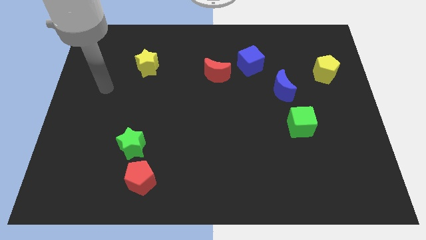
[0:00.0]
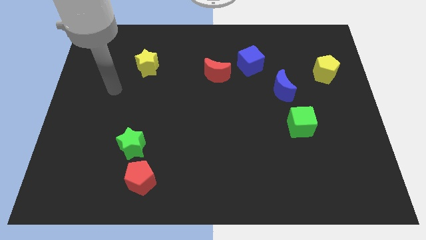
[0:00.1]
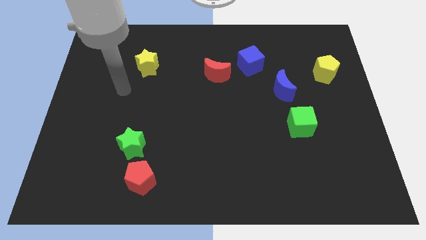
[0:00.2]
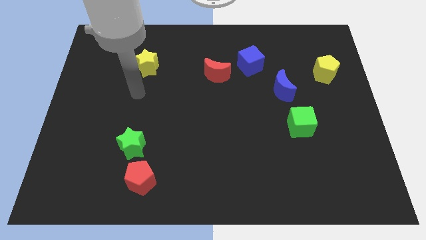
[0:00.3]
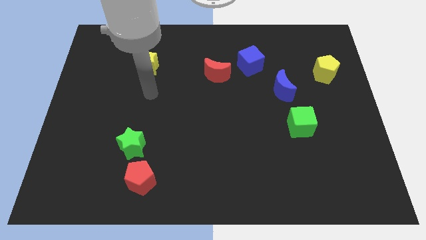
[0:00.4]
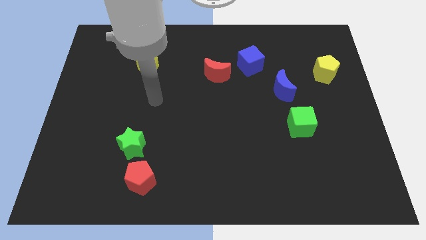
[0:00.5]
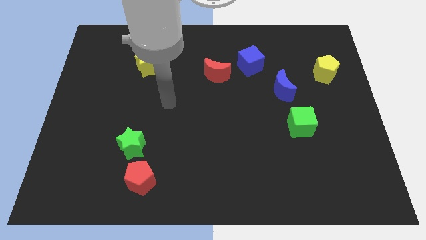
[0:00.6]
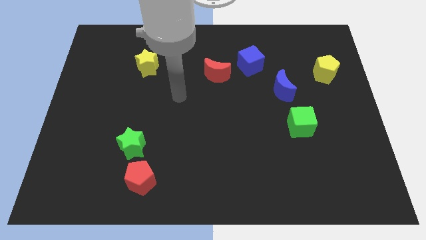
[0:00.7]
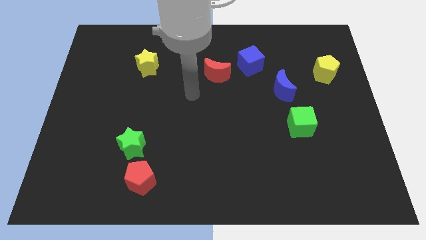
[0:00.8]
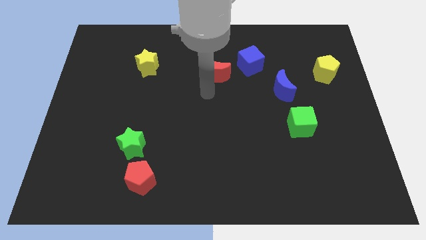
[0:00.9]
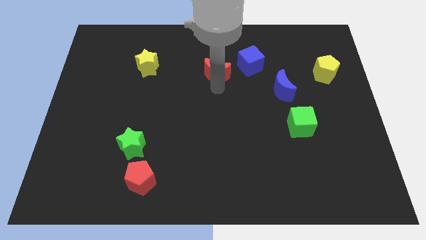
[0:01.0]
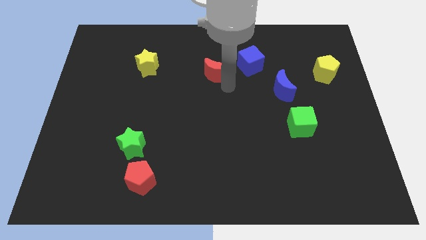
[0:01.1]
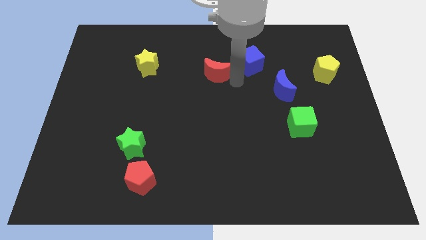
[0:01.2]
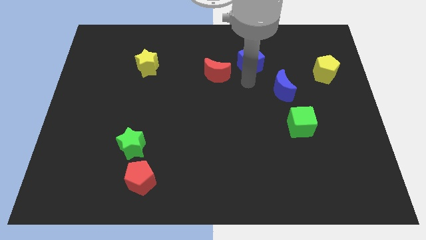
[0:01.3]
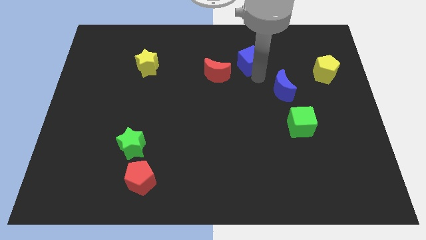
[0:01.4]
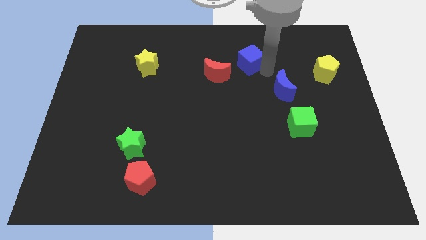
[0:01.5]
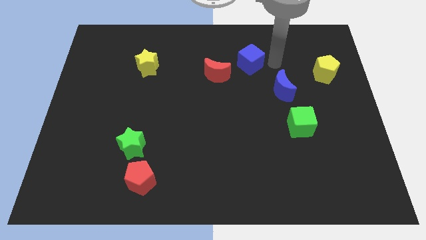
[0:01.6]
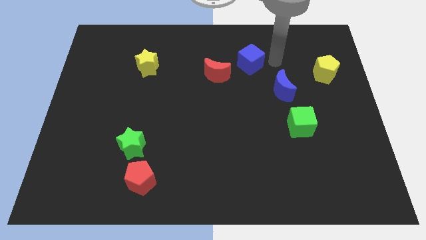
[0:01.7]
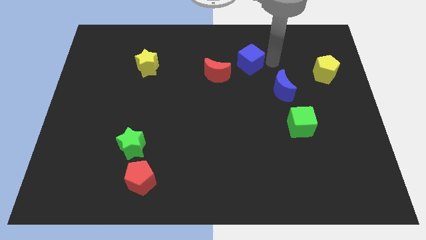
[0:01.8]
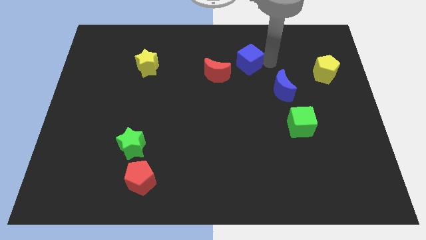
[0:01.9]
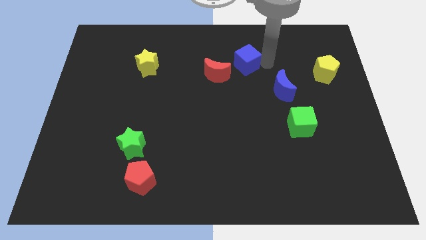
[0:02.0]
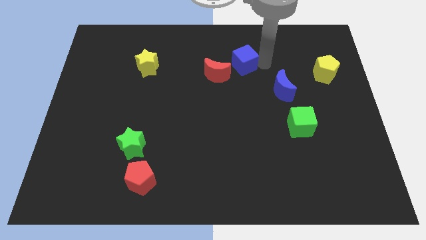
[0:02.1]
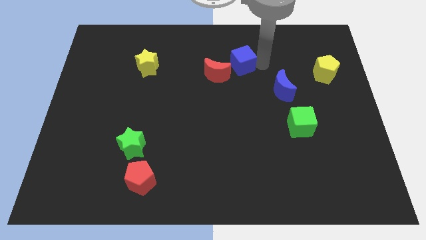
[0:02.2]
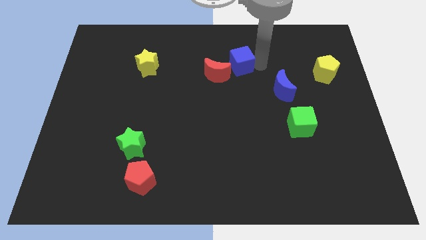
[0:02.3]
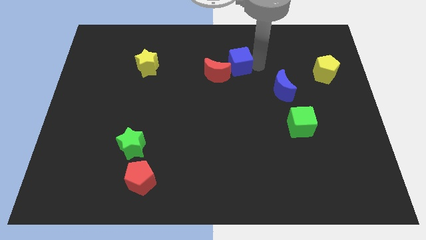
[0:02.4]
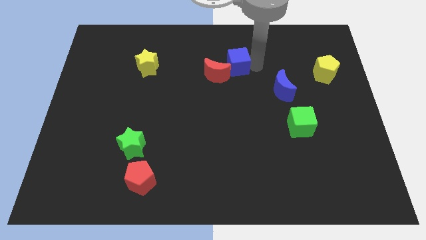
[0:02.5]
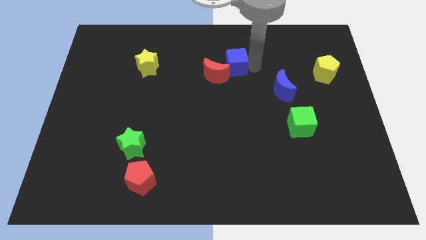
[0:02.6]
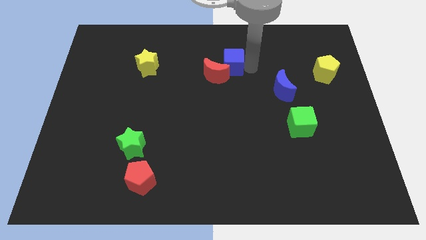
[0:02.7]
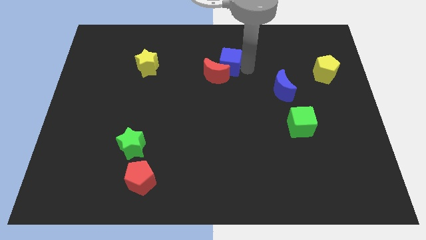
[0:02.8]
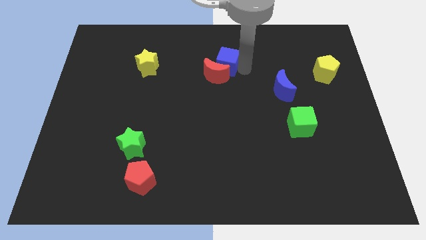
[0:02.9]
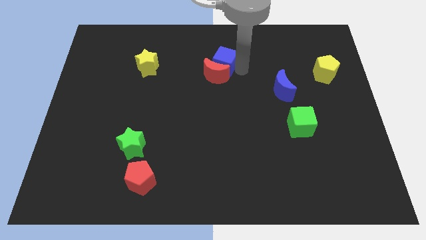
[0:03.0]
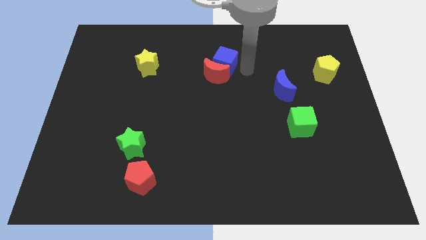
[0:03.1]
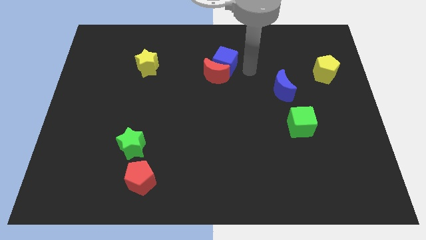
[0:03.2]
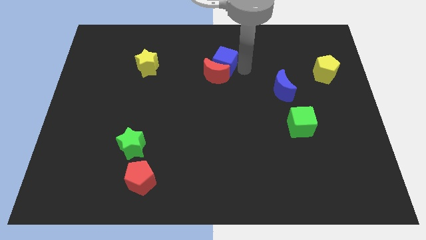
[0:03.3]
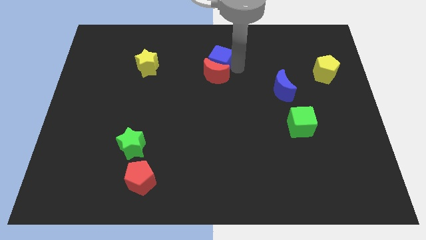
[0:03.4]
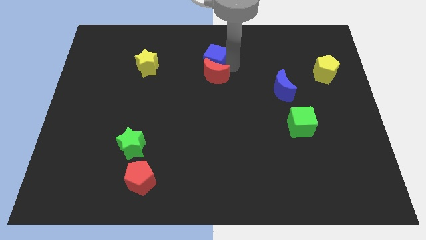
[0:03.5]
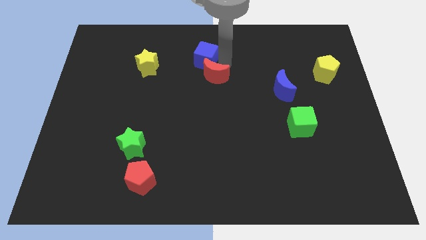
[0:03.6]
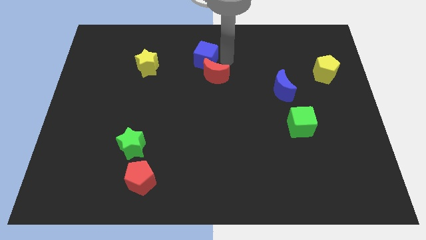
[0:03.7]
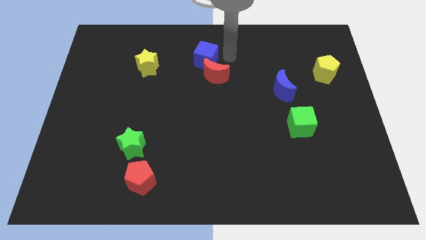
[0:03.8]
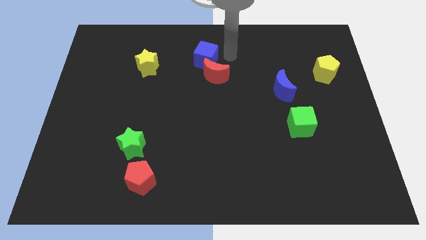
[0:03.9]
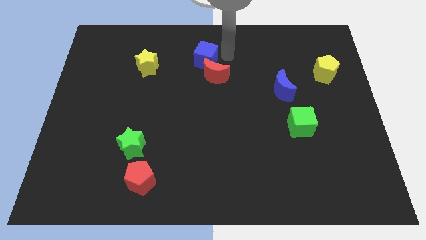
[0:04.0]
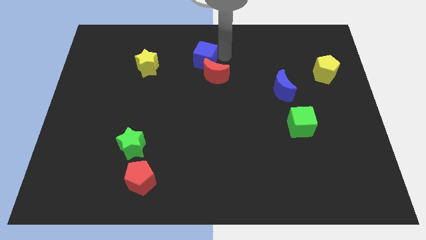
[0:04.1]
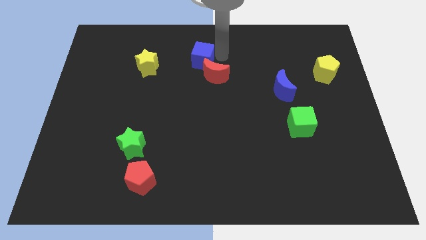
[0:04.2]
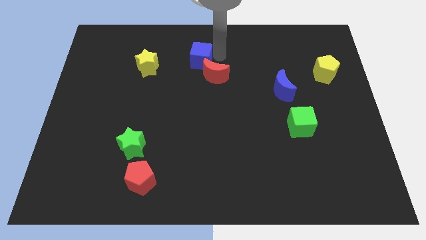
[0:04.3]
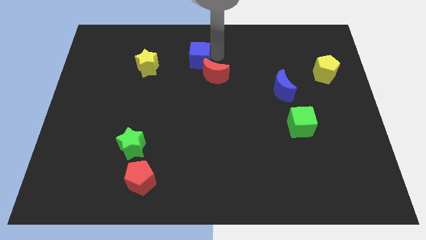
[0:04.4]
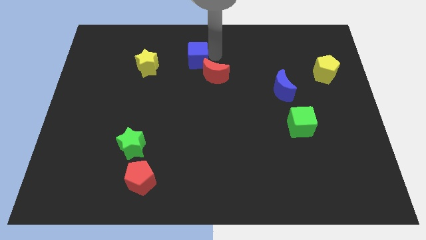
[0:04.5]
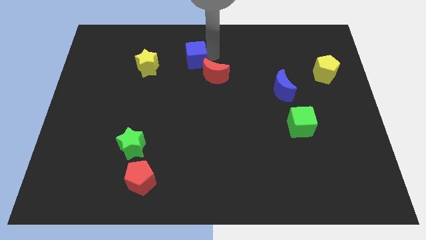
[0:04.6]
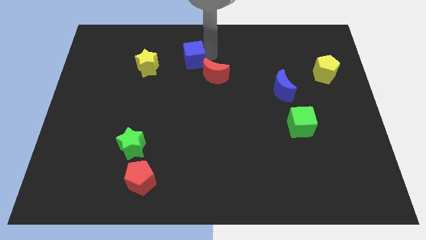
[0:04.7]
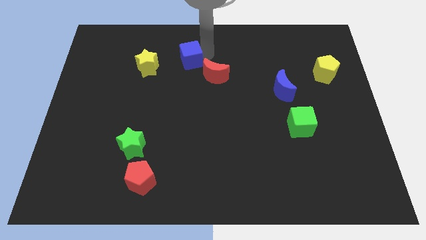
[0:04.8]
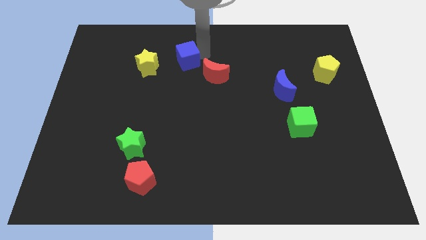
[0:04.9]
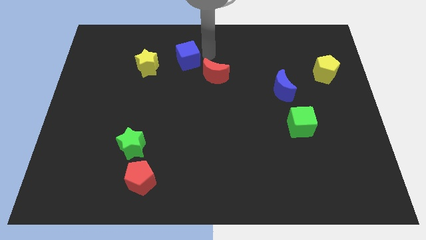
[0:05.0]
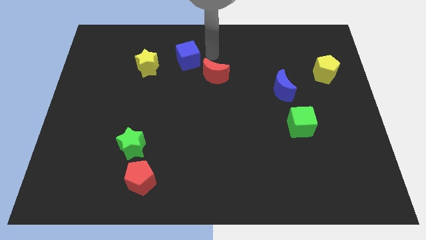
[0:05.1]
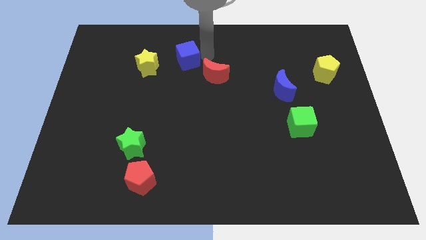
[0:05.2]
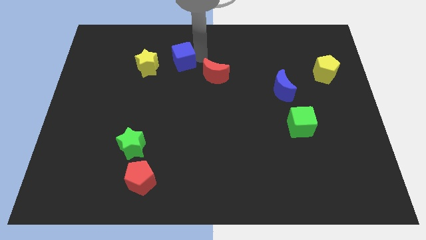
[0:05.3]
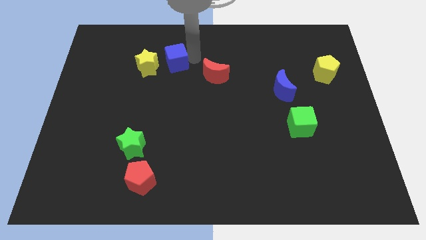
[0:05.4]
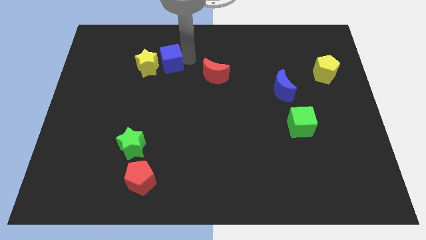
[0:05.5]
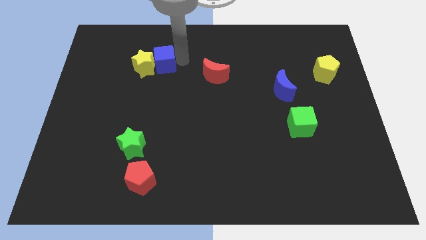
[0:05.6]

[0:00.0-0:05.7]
put the blue cube next to the yellow star

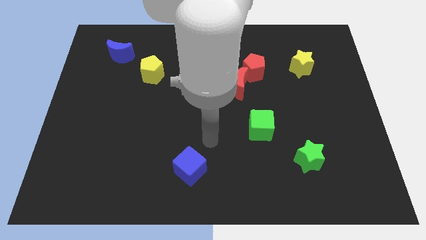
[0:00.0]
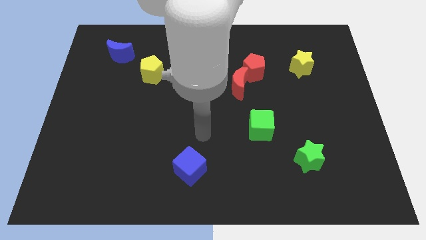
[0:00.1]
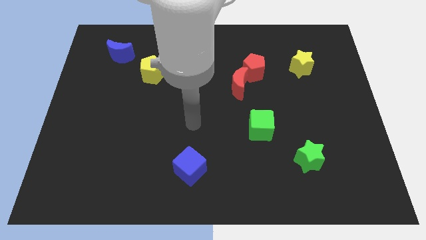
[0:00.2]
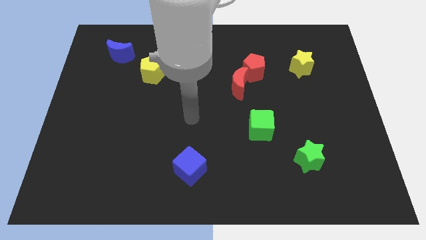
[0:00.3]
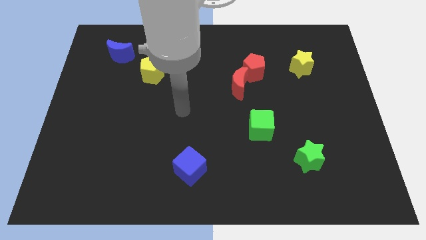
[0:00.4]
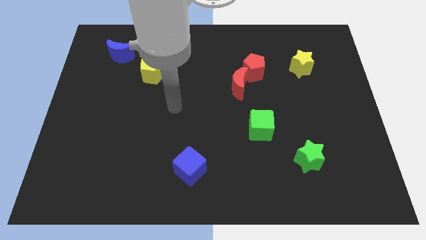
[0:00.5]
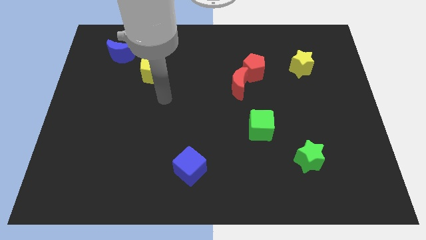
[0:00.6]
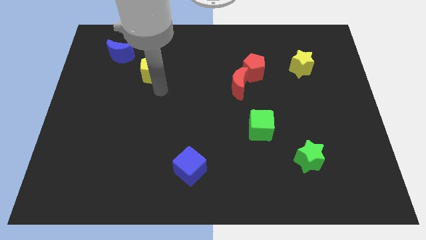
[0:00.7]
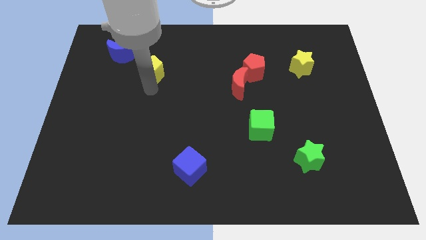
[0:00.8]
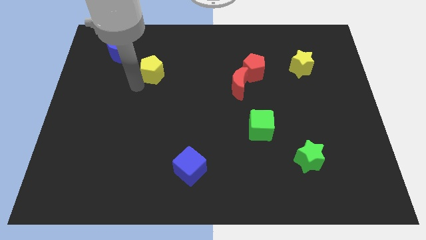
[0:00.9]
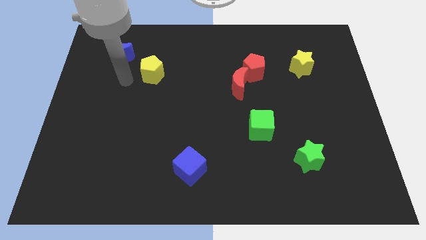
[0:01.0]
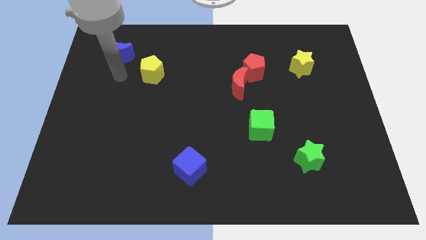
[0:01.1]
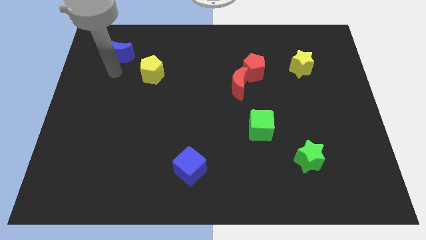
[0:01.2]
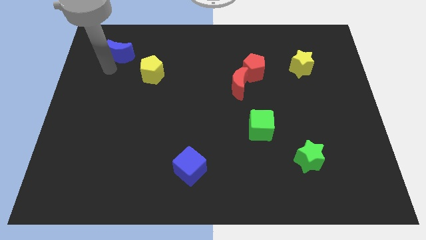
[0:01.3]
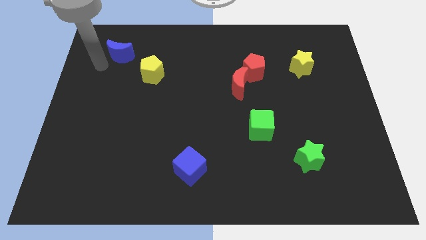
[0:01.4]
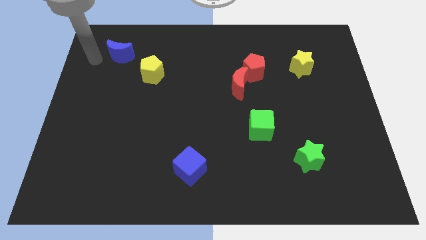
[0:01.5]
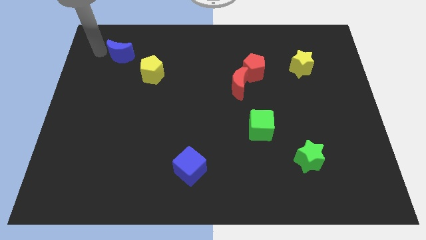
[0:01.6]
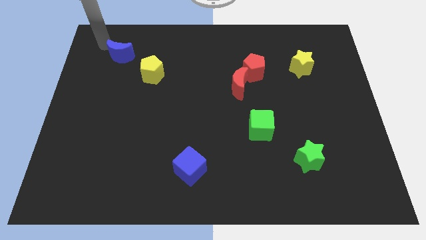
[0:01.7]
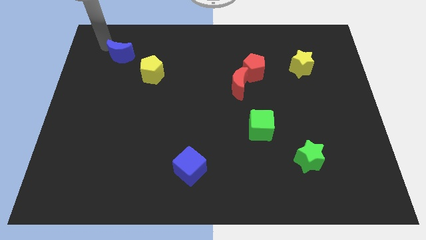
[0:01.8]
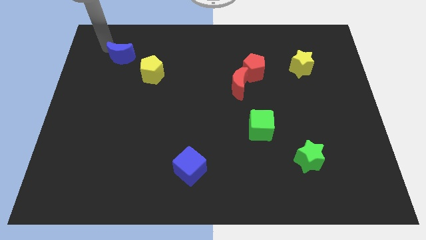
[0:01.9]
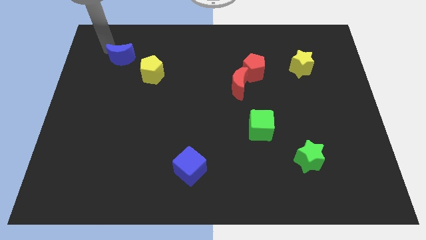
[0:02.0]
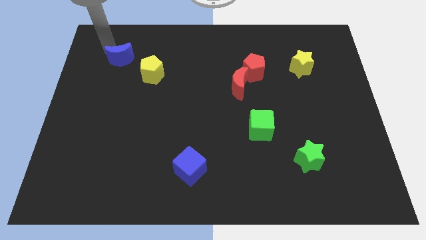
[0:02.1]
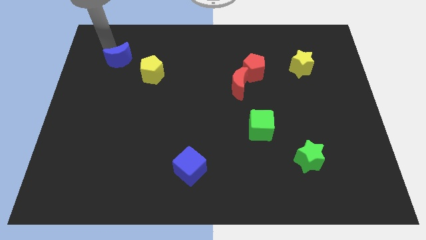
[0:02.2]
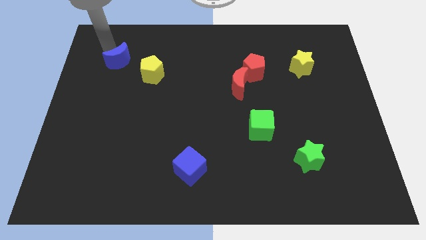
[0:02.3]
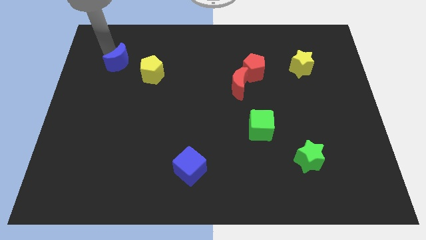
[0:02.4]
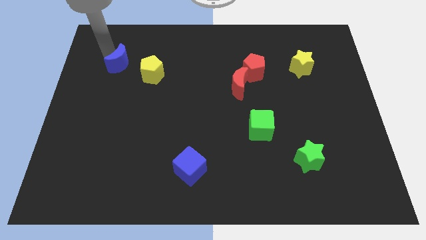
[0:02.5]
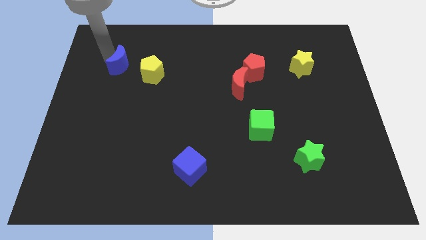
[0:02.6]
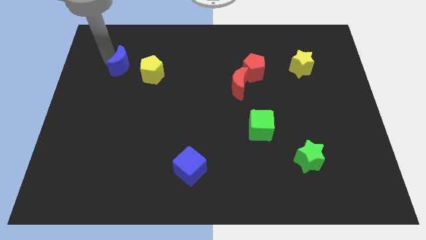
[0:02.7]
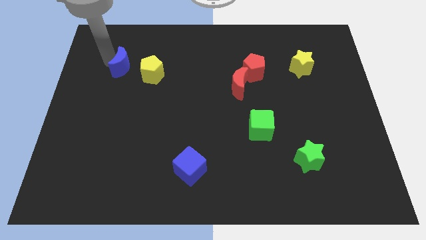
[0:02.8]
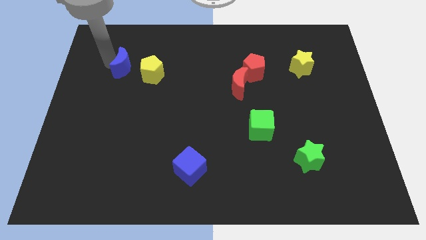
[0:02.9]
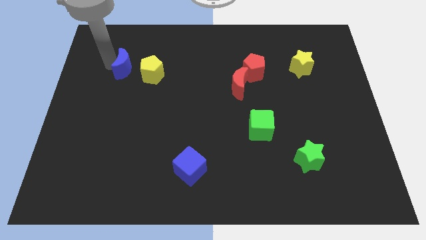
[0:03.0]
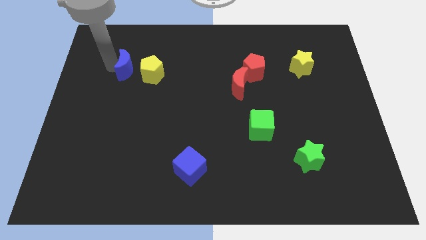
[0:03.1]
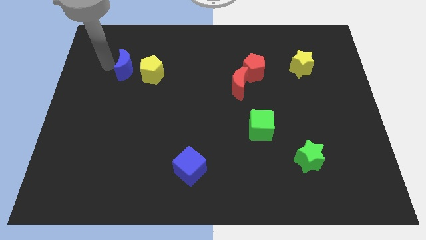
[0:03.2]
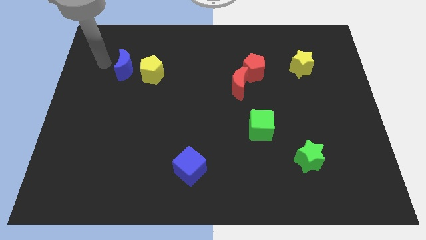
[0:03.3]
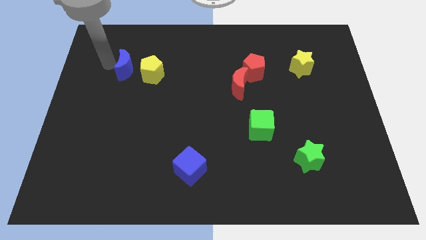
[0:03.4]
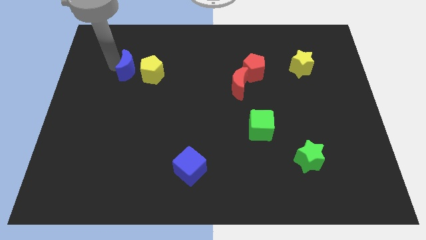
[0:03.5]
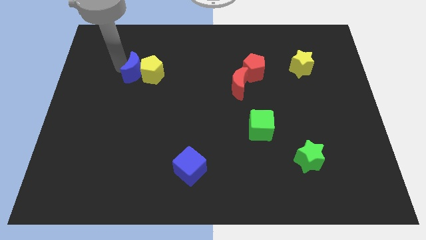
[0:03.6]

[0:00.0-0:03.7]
push the blue moon close to the yellow pentagon
